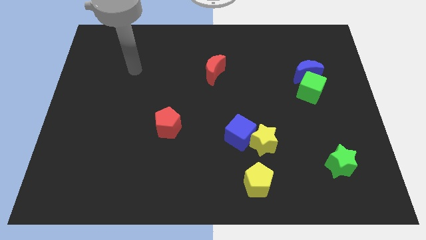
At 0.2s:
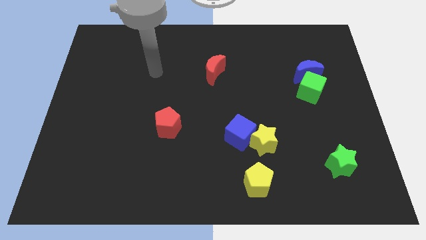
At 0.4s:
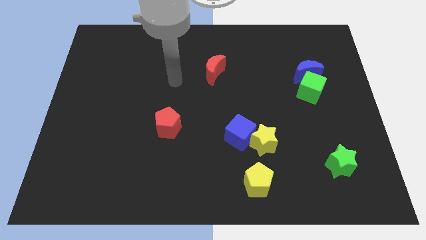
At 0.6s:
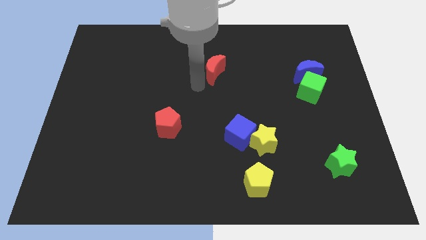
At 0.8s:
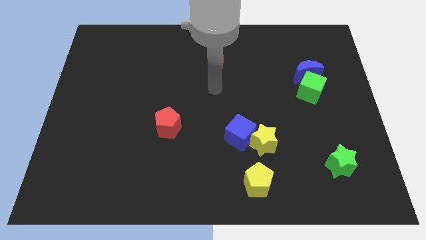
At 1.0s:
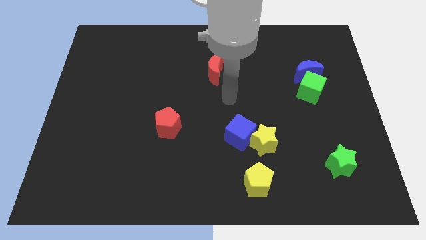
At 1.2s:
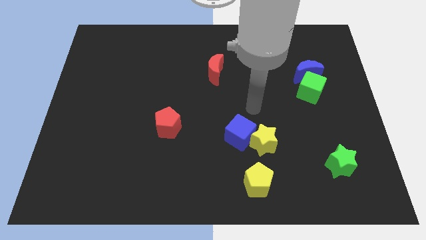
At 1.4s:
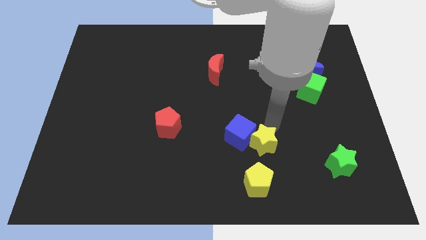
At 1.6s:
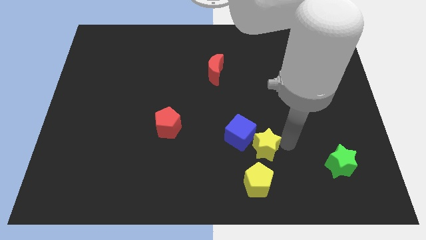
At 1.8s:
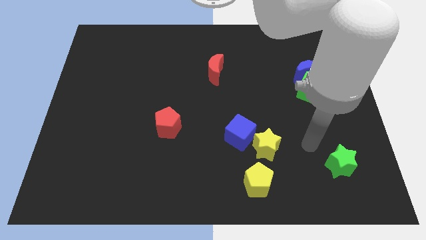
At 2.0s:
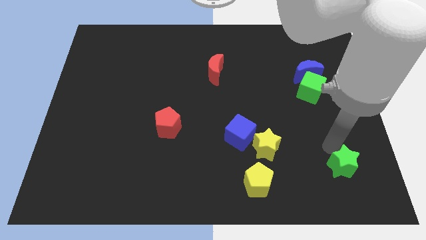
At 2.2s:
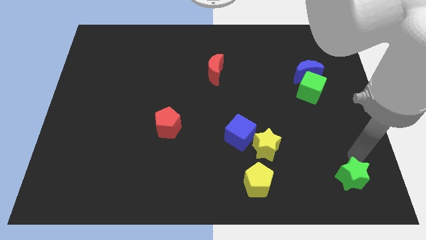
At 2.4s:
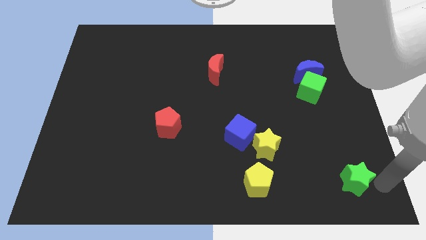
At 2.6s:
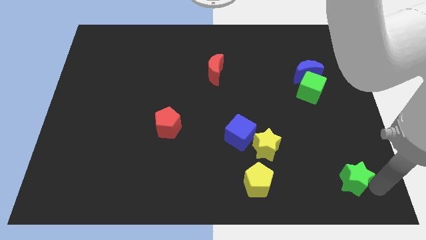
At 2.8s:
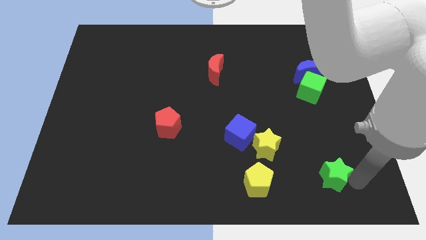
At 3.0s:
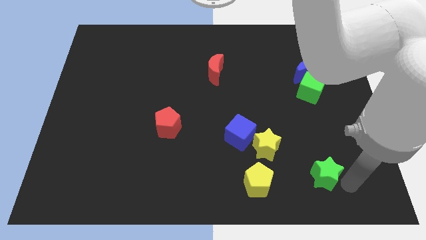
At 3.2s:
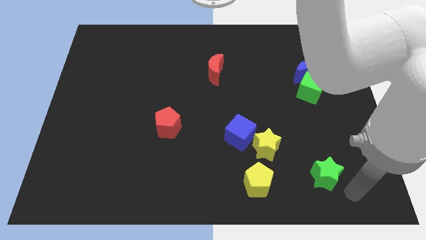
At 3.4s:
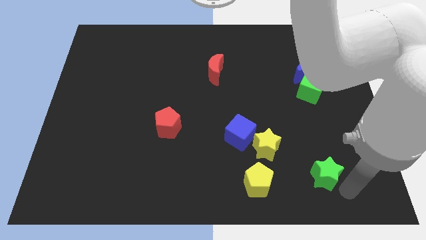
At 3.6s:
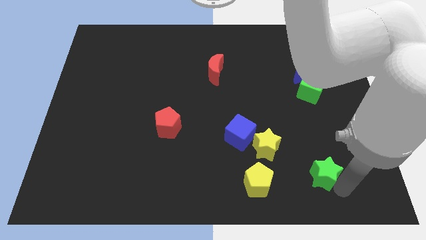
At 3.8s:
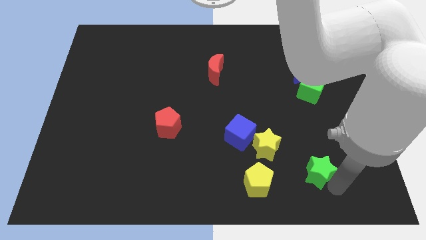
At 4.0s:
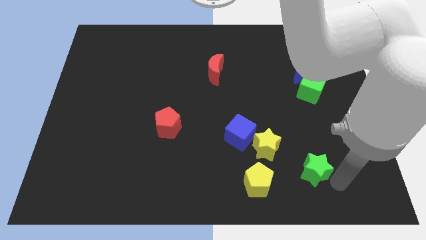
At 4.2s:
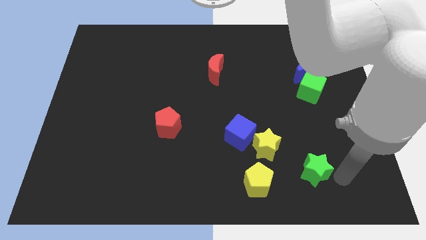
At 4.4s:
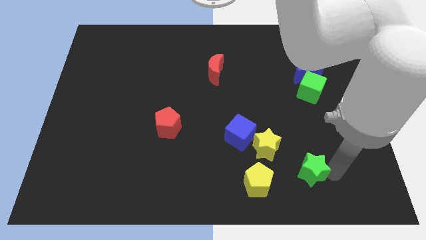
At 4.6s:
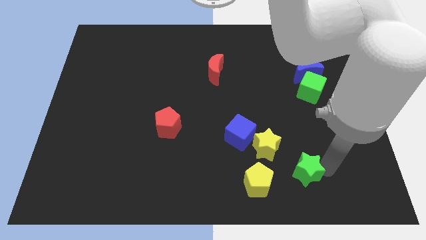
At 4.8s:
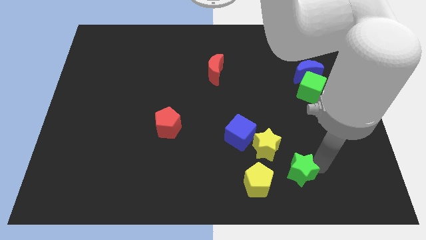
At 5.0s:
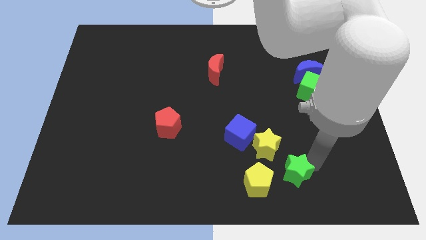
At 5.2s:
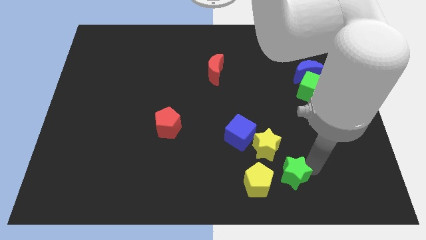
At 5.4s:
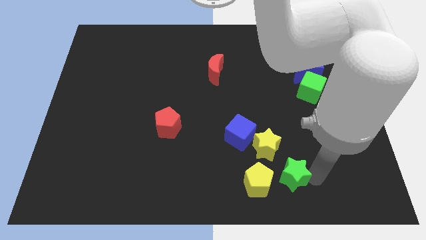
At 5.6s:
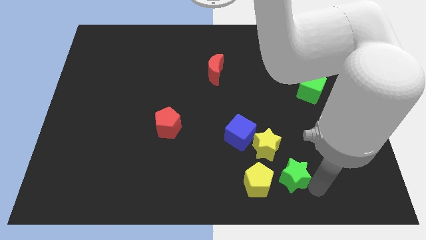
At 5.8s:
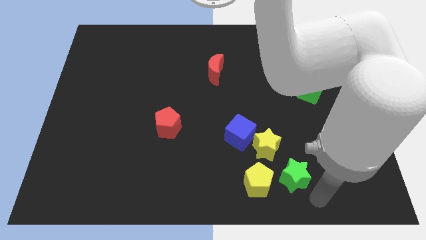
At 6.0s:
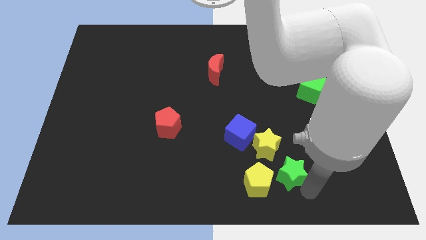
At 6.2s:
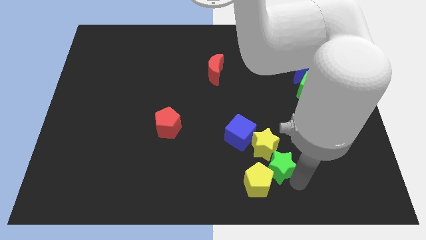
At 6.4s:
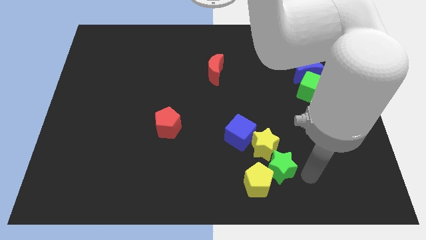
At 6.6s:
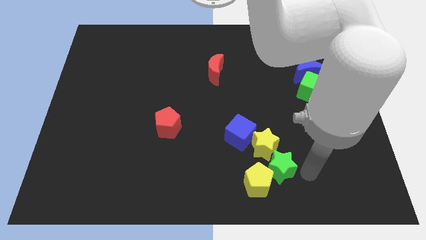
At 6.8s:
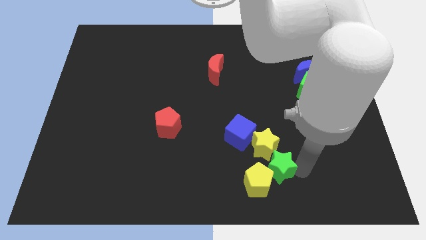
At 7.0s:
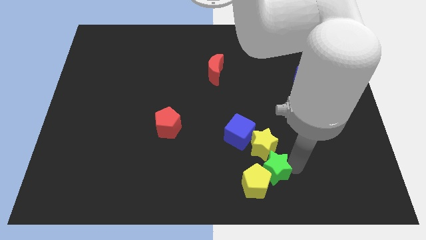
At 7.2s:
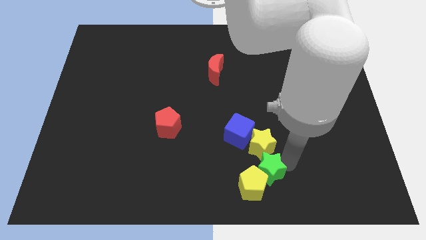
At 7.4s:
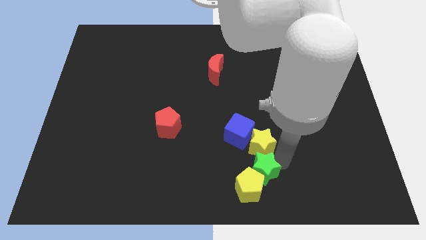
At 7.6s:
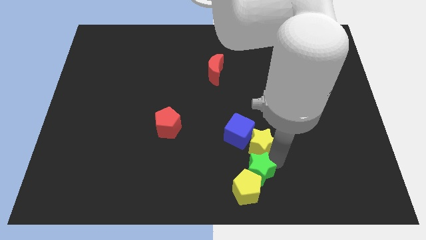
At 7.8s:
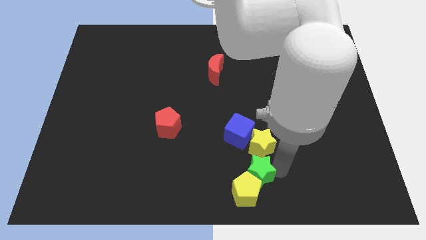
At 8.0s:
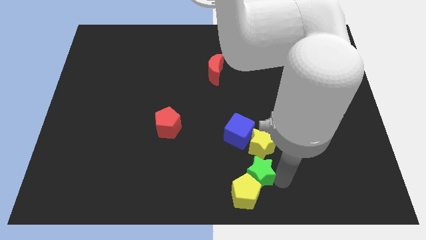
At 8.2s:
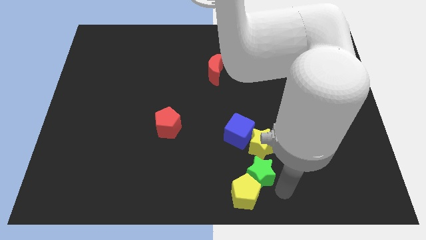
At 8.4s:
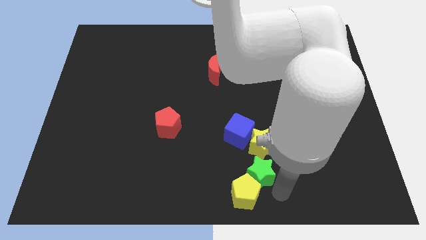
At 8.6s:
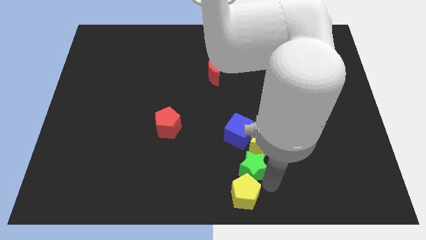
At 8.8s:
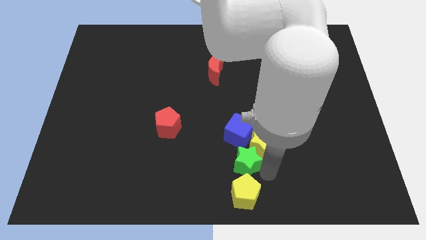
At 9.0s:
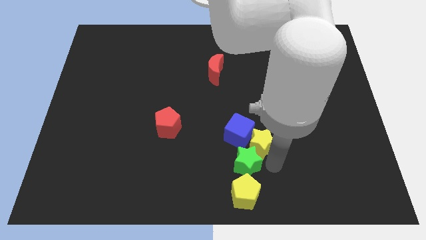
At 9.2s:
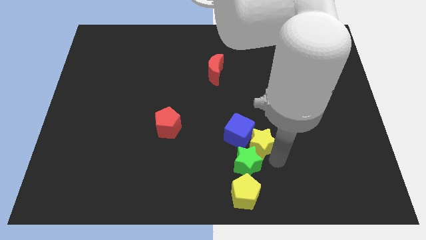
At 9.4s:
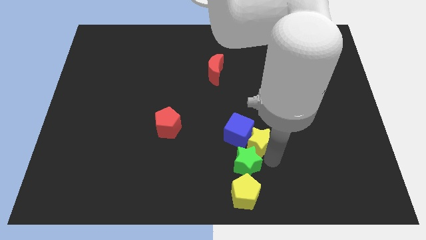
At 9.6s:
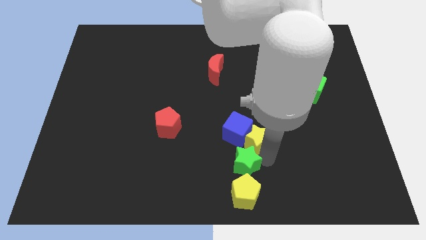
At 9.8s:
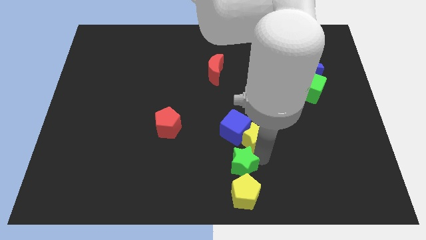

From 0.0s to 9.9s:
slide the green star to the left

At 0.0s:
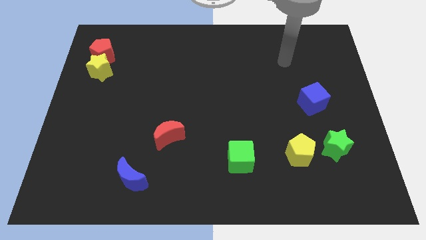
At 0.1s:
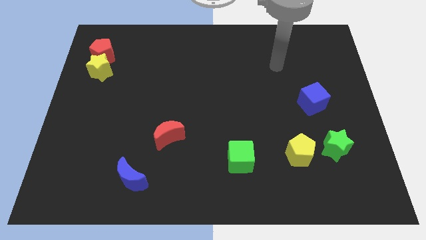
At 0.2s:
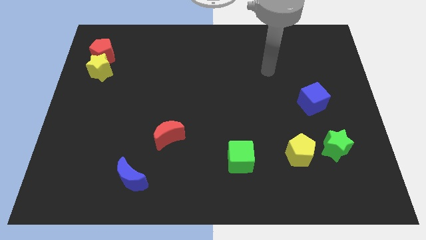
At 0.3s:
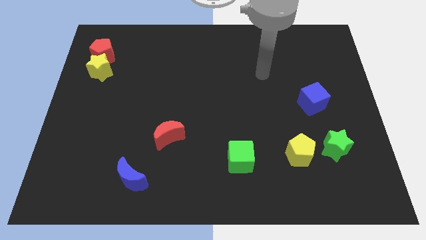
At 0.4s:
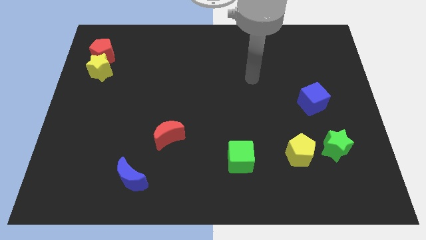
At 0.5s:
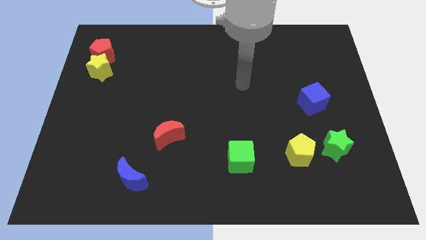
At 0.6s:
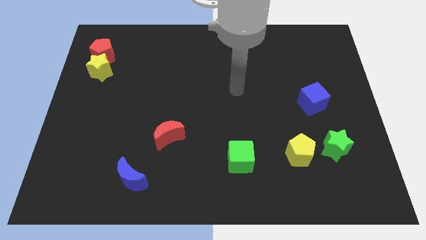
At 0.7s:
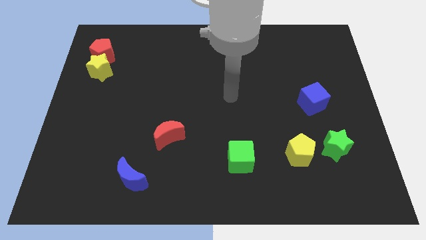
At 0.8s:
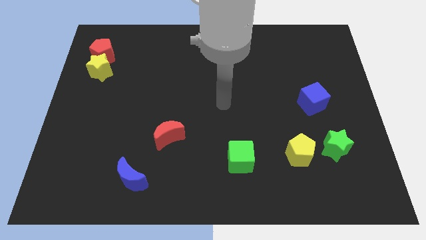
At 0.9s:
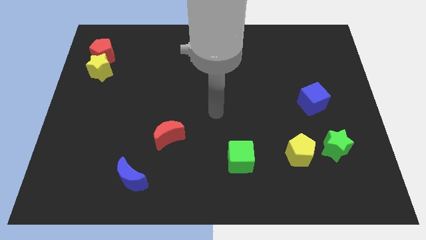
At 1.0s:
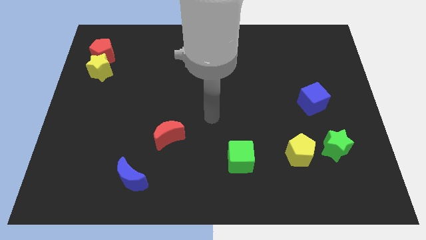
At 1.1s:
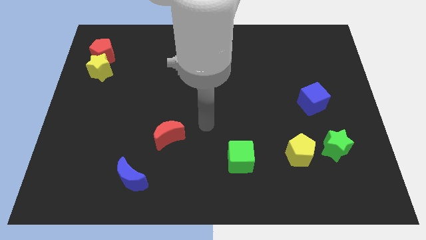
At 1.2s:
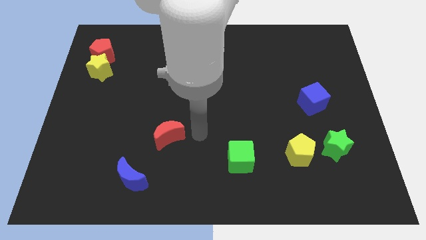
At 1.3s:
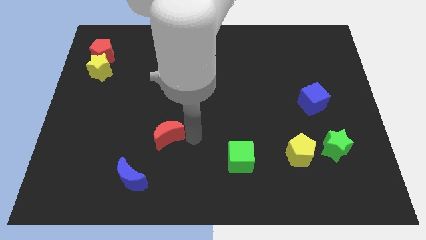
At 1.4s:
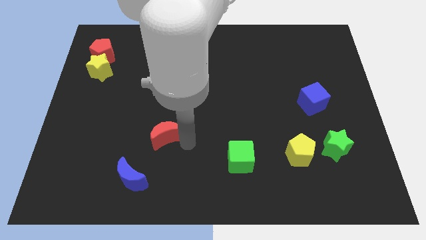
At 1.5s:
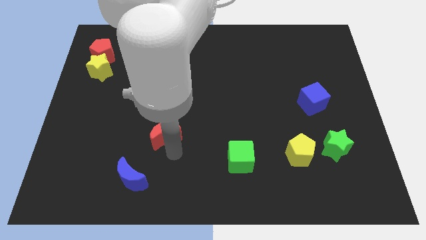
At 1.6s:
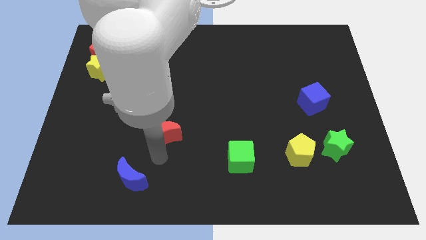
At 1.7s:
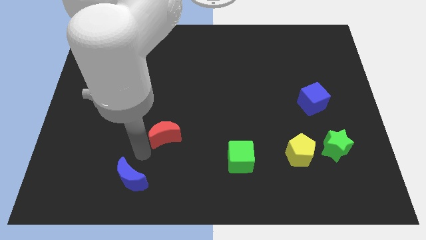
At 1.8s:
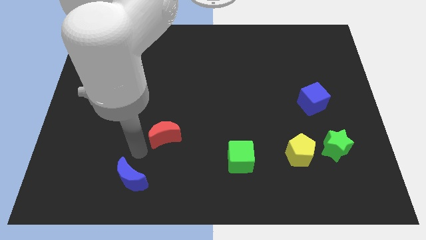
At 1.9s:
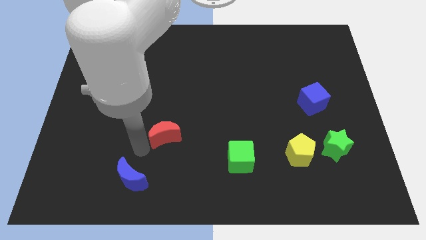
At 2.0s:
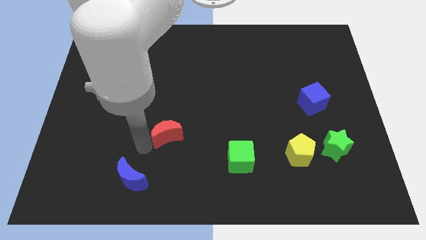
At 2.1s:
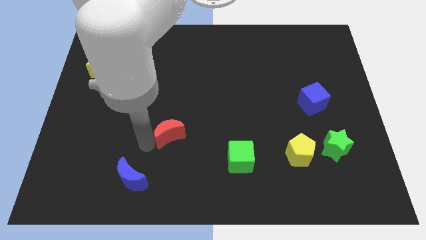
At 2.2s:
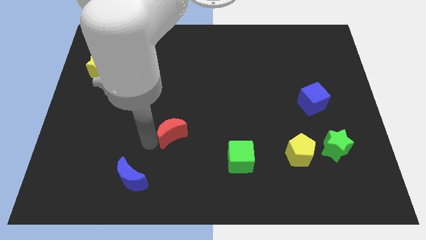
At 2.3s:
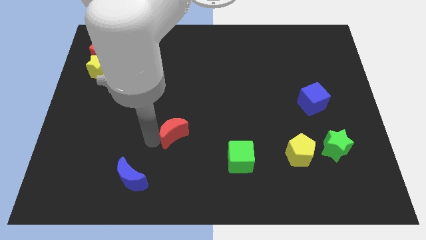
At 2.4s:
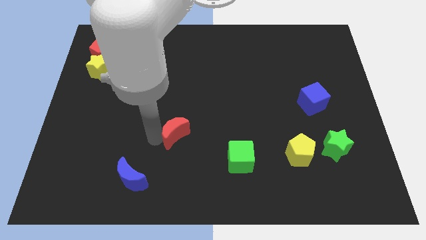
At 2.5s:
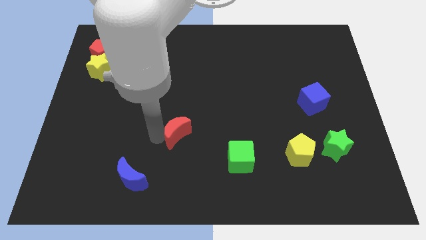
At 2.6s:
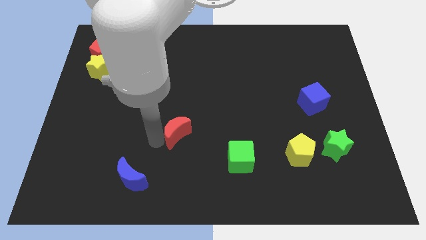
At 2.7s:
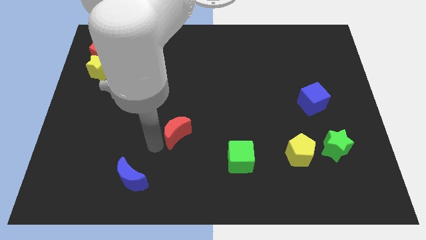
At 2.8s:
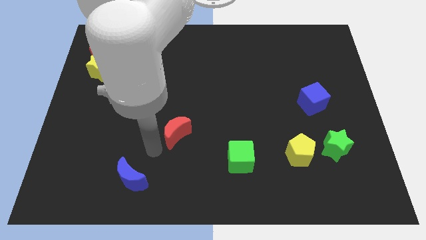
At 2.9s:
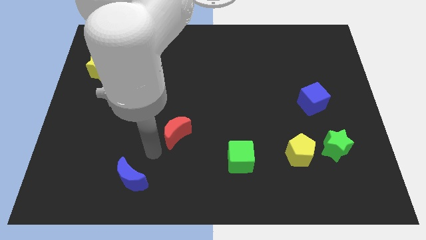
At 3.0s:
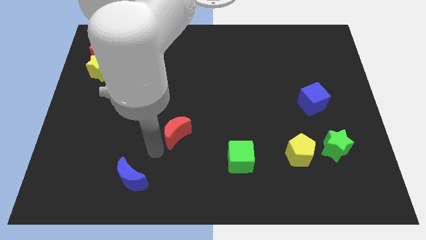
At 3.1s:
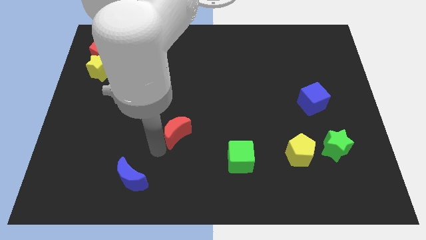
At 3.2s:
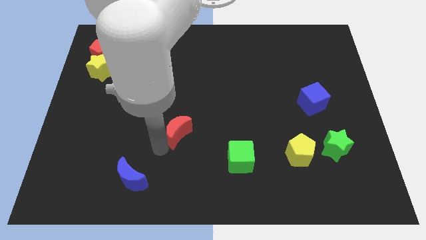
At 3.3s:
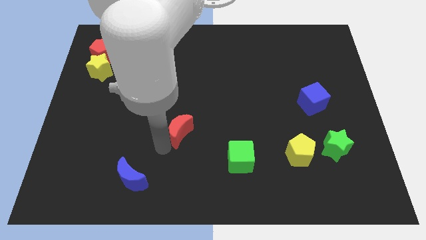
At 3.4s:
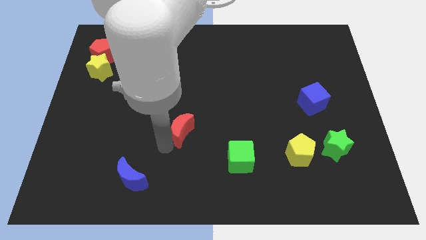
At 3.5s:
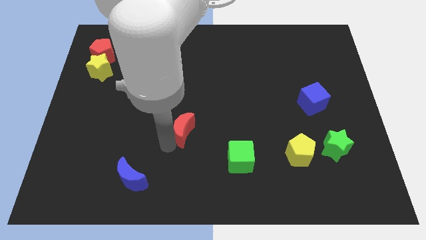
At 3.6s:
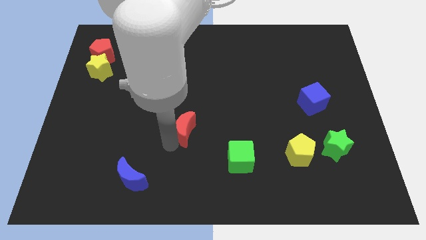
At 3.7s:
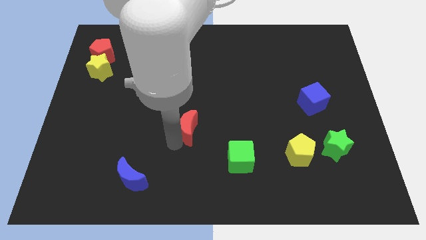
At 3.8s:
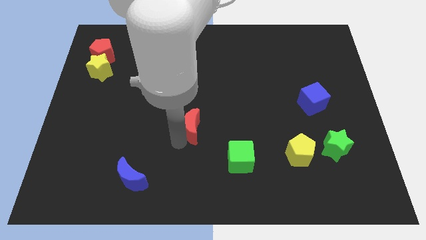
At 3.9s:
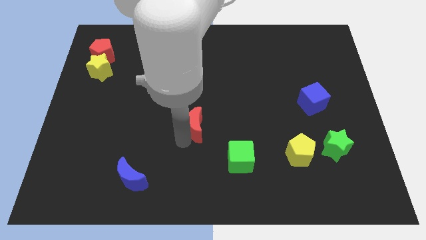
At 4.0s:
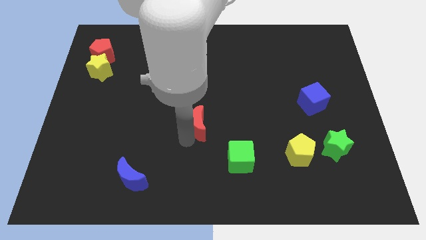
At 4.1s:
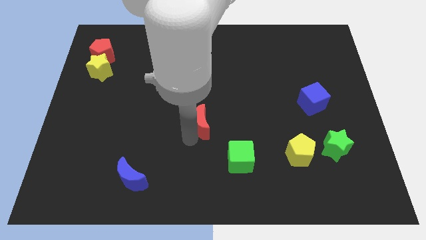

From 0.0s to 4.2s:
push the red moon up and to the right diagonally somewhat
